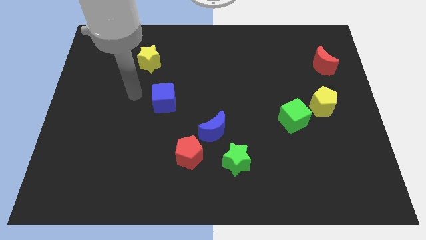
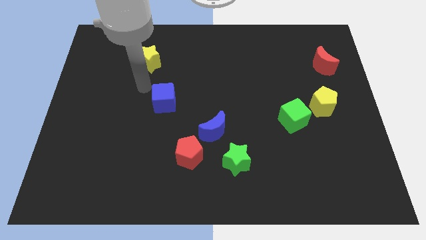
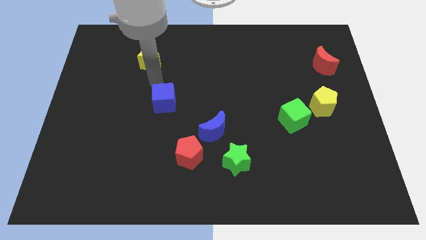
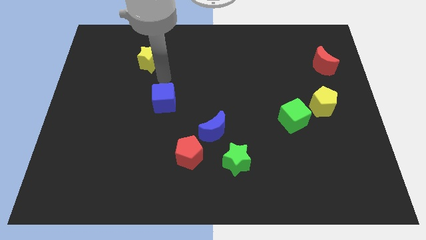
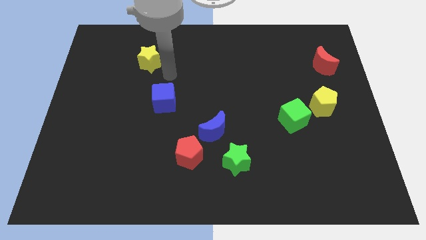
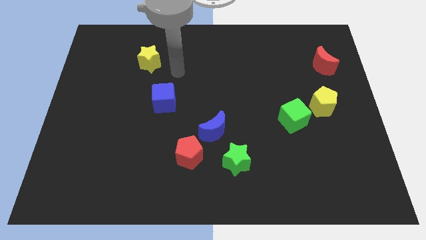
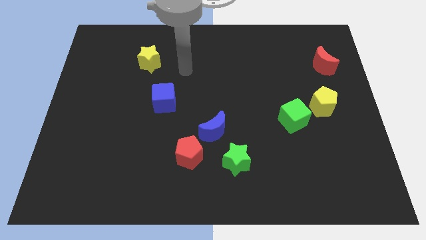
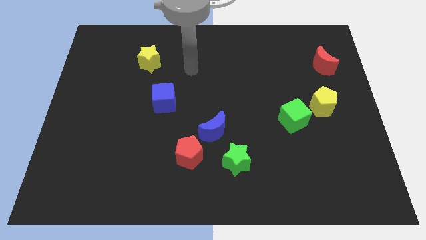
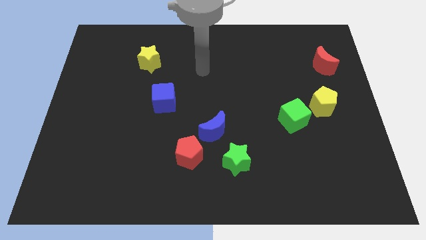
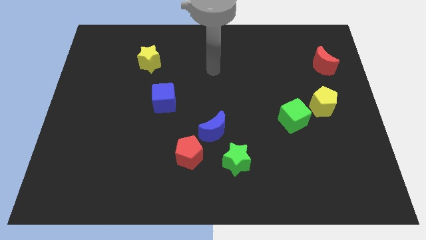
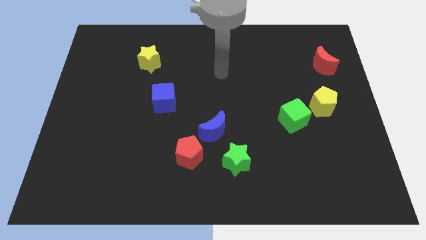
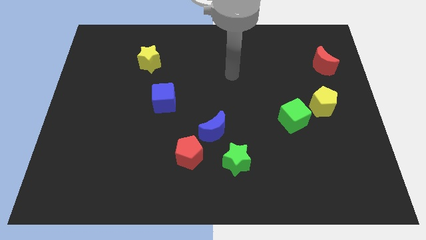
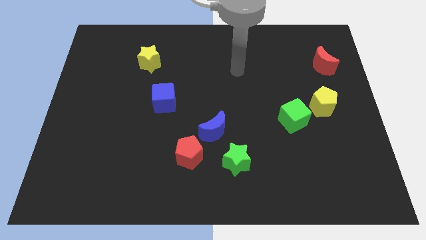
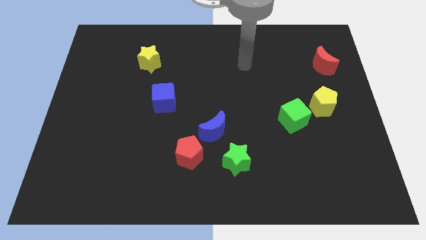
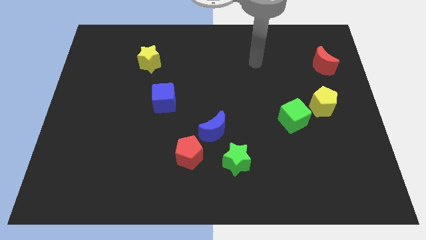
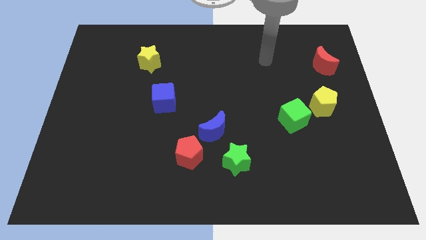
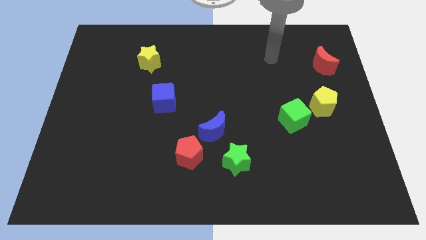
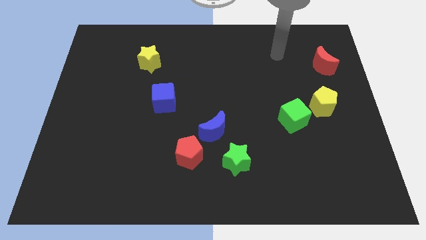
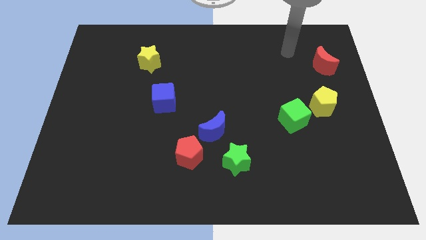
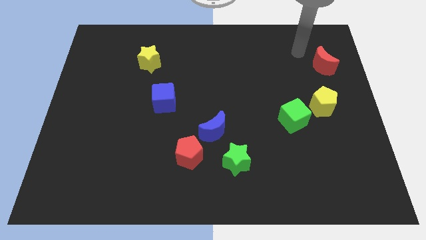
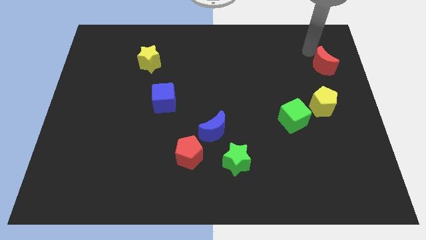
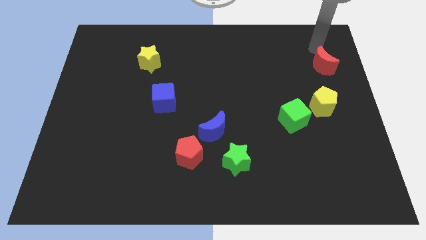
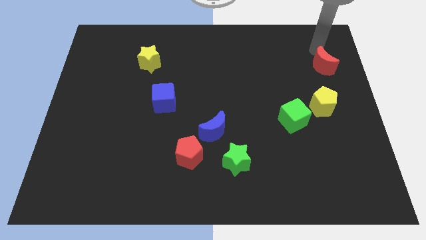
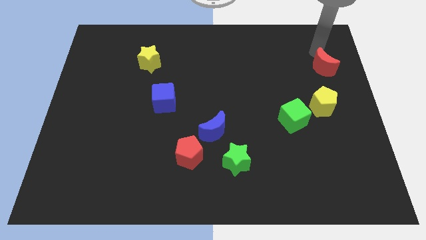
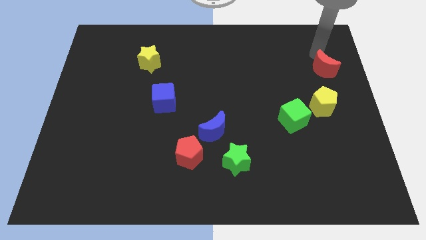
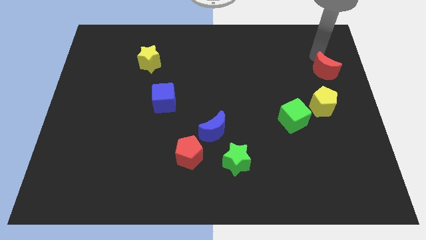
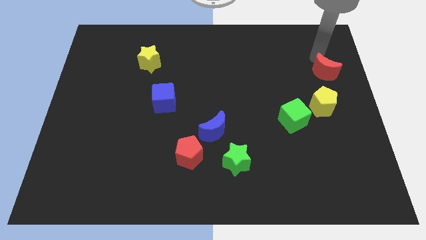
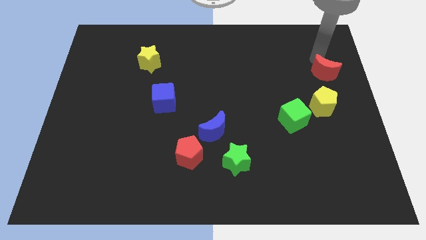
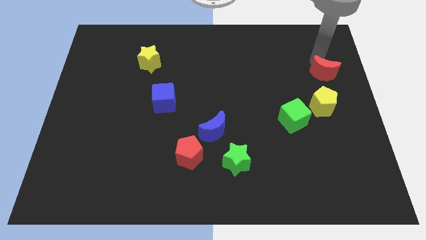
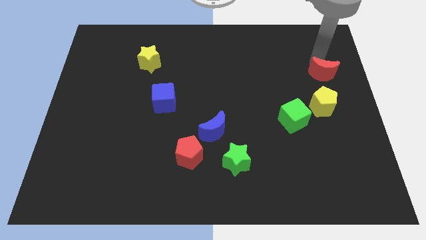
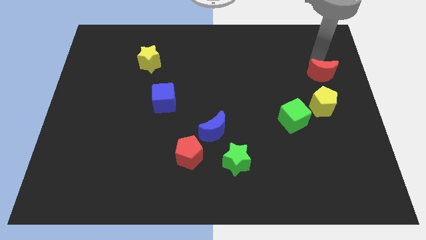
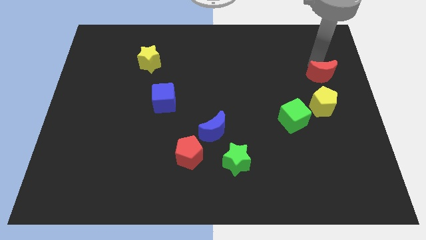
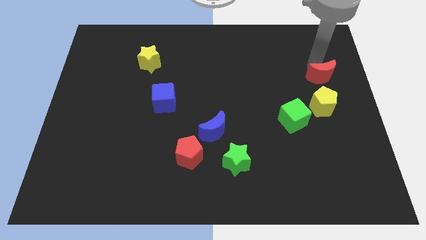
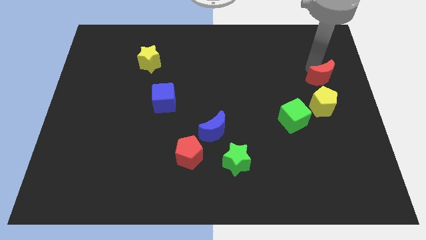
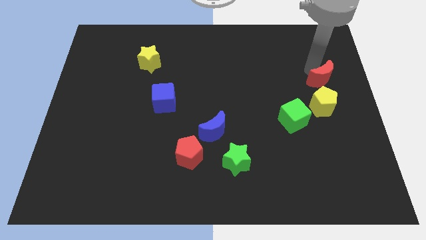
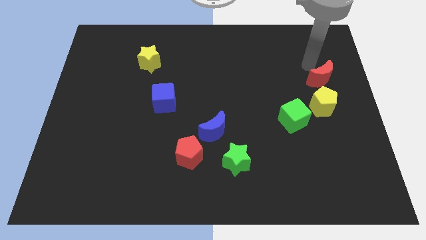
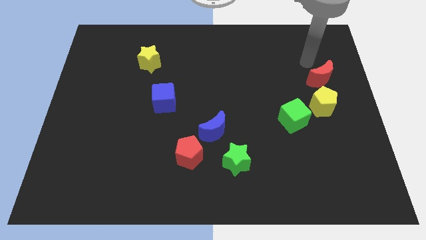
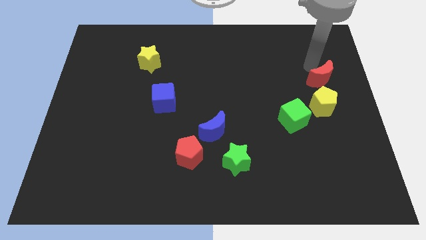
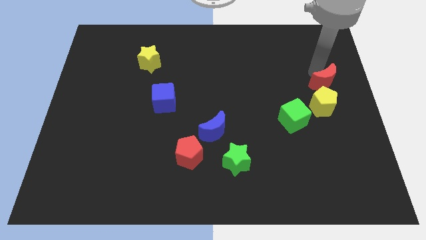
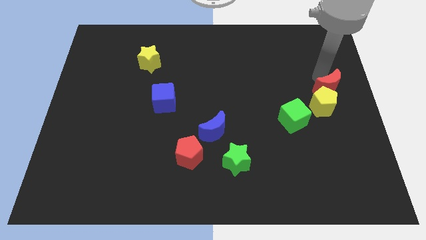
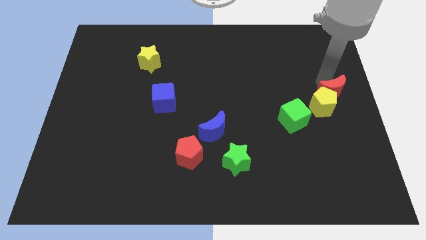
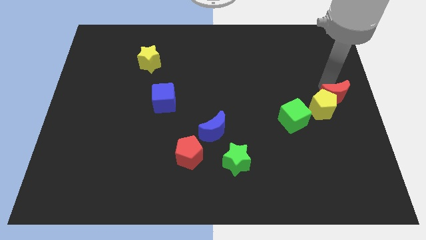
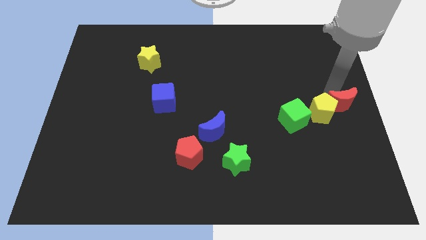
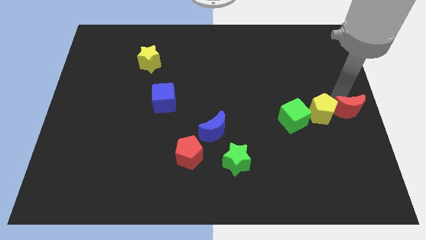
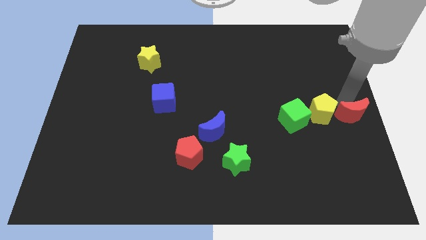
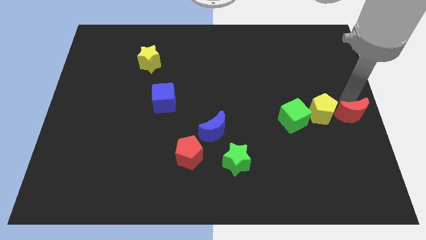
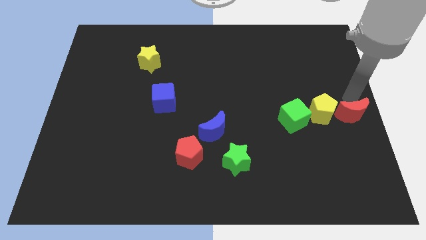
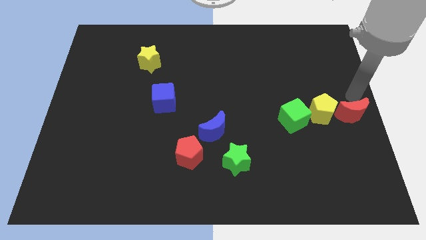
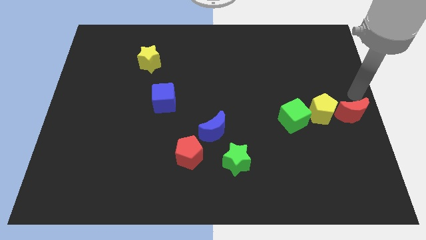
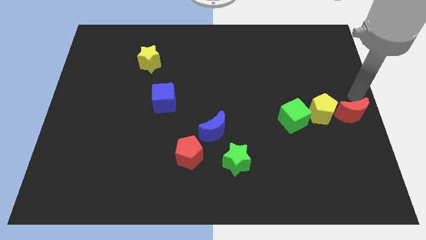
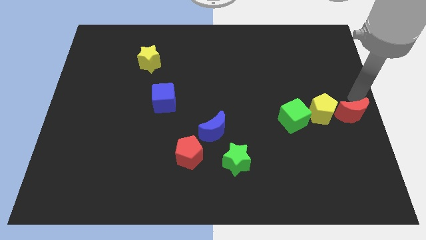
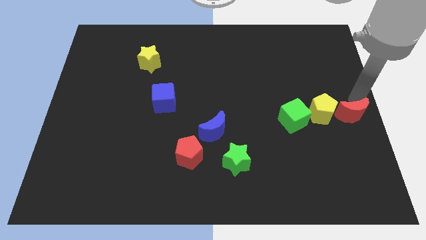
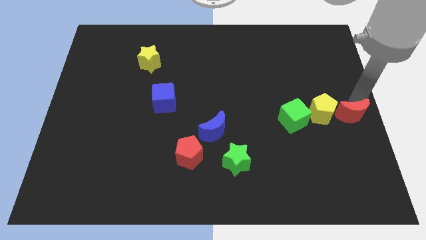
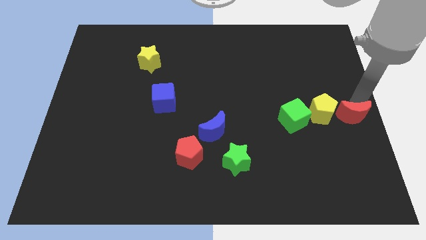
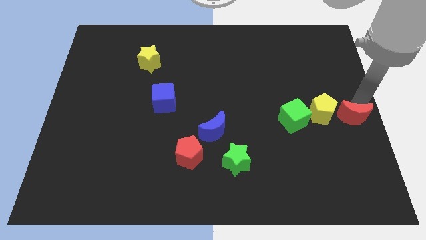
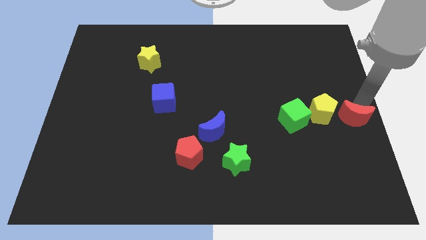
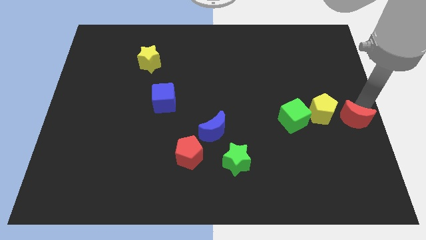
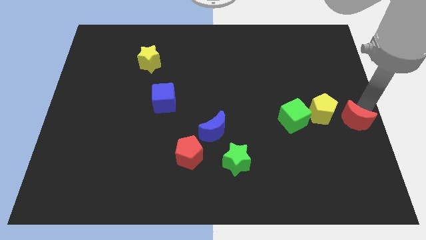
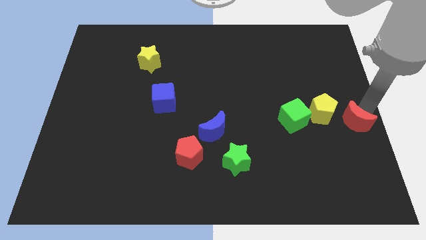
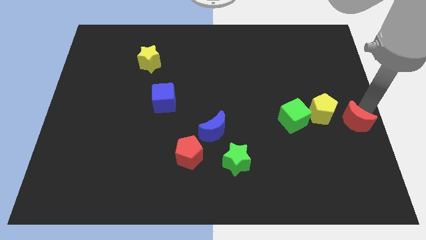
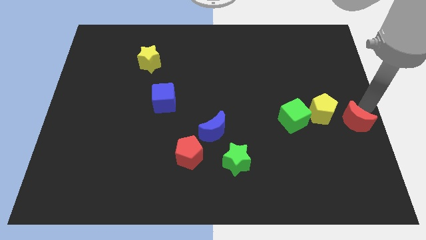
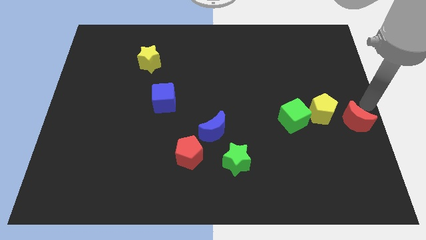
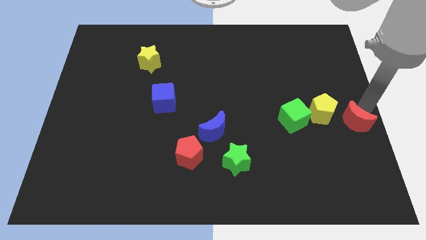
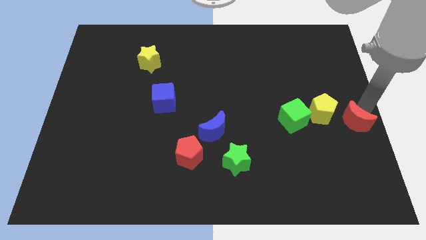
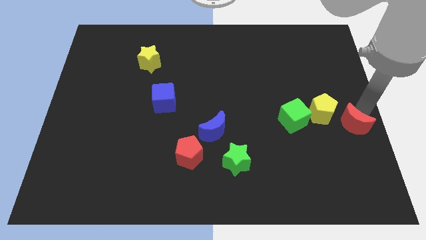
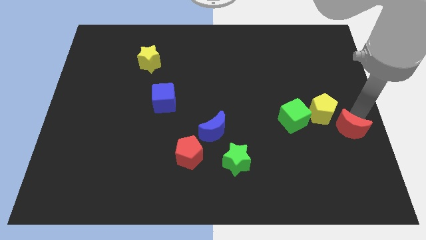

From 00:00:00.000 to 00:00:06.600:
slide the red moon down

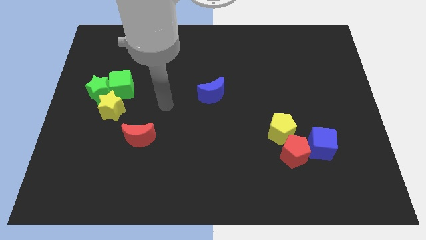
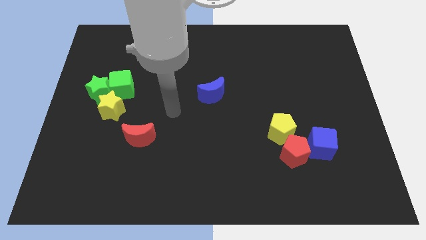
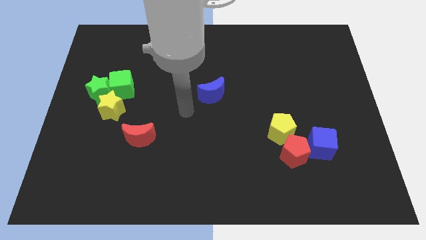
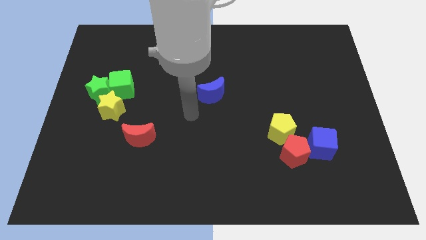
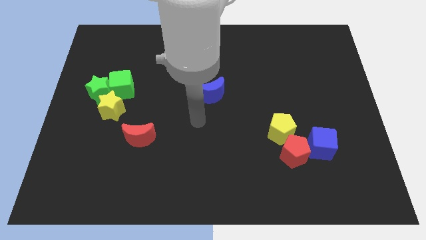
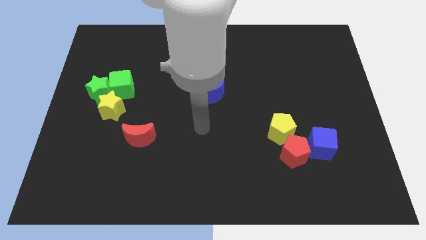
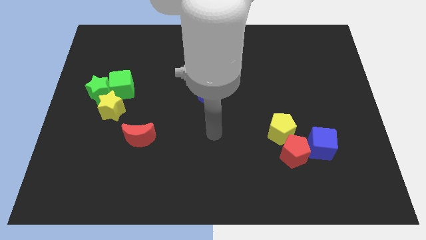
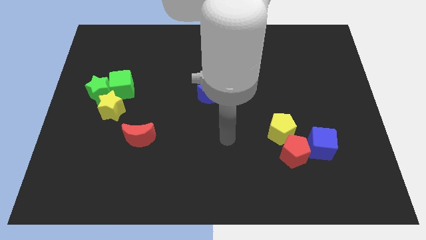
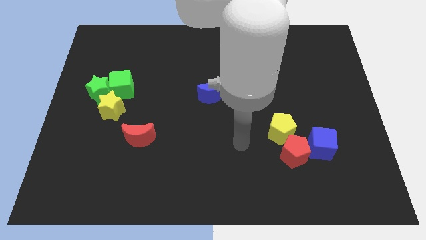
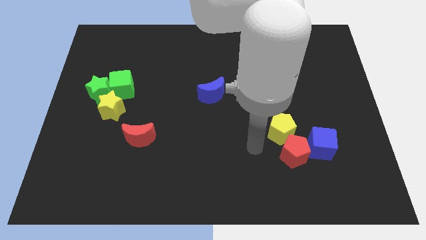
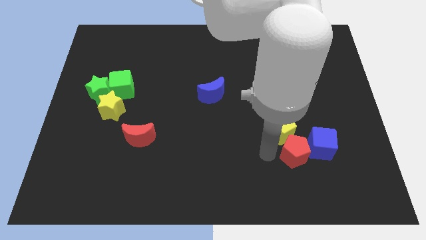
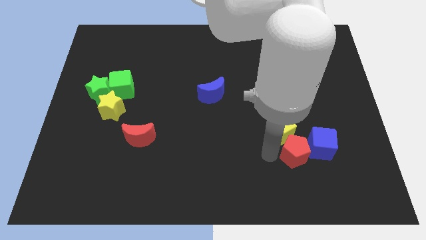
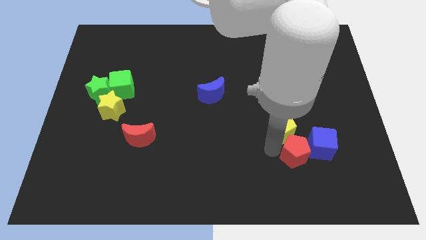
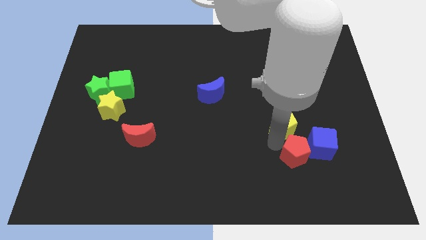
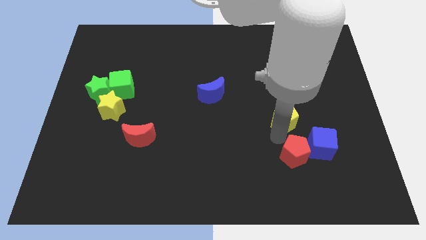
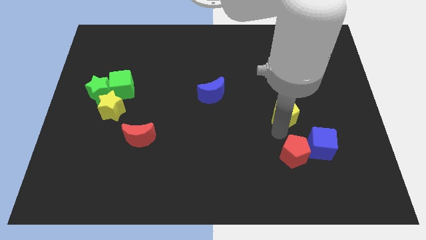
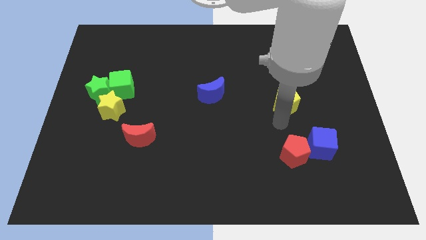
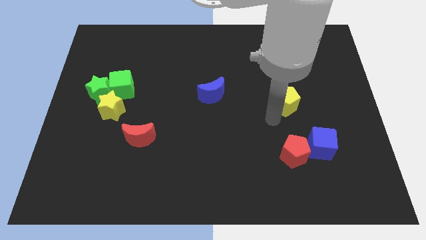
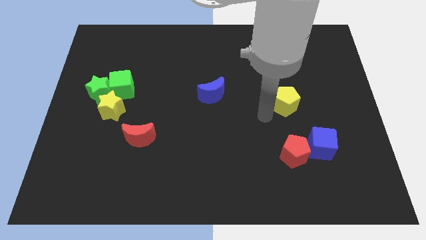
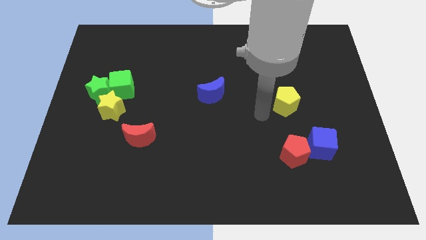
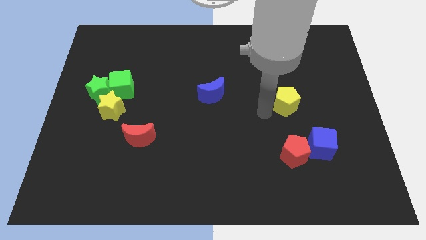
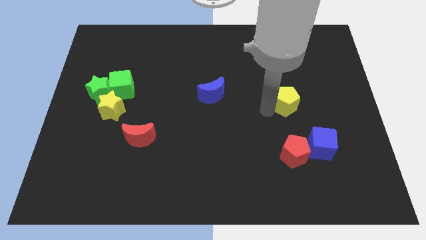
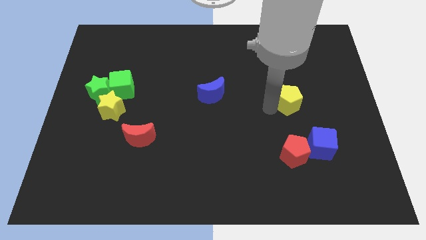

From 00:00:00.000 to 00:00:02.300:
move the yellow pentagon a little diagonally upwards and to the right
